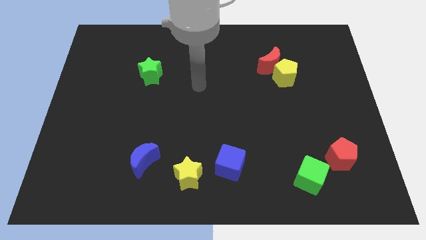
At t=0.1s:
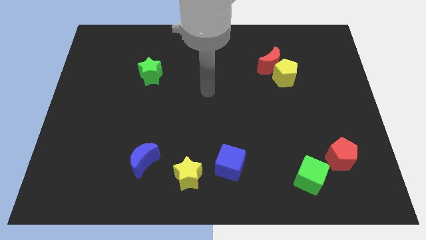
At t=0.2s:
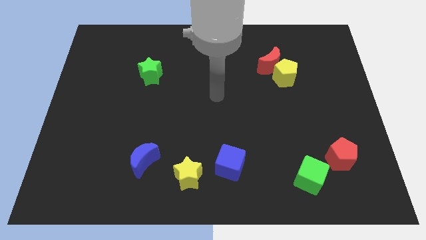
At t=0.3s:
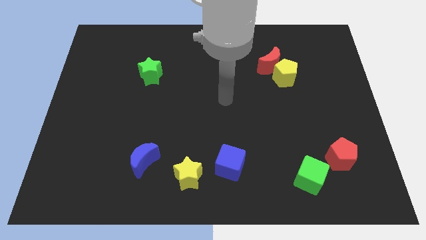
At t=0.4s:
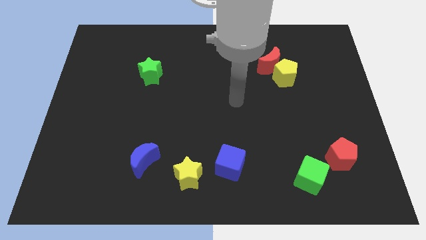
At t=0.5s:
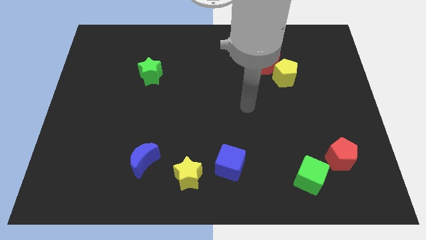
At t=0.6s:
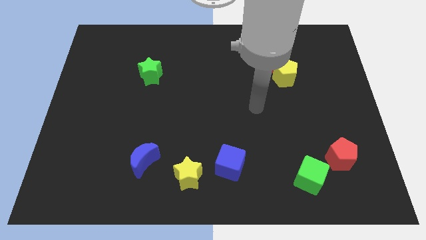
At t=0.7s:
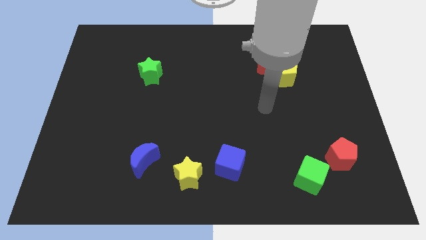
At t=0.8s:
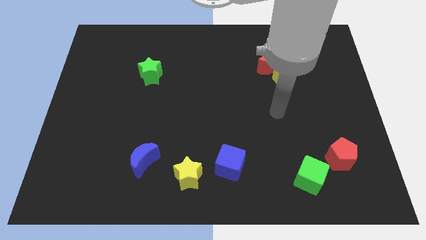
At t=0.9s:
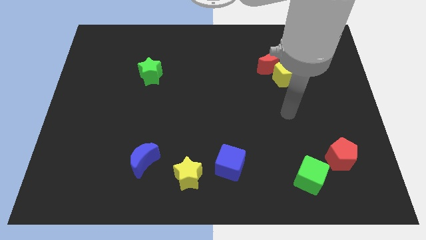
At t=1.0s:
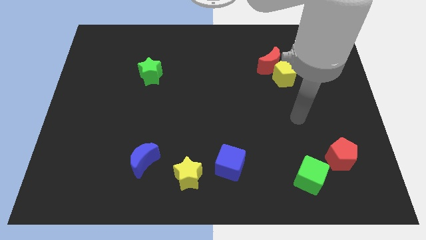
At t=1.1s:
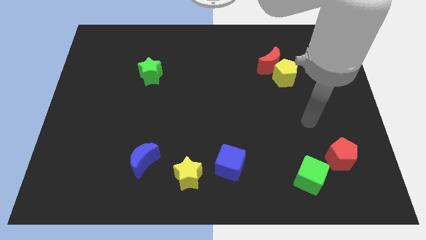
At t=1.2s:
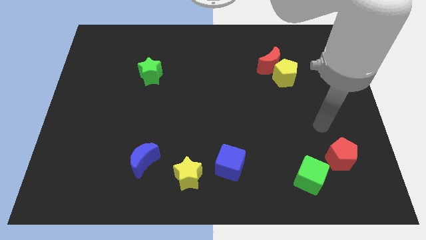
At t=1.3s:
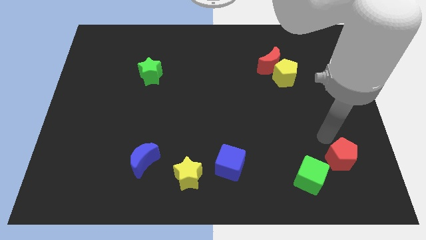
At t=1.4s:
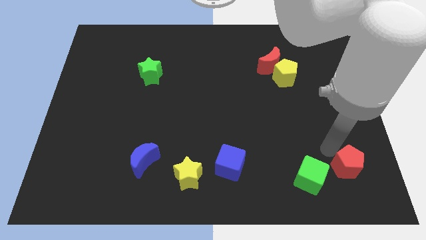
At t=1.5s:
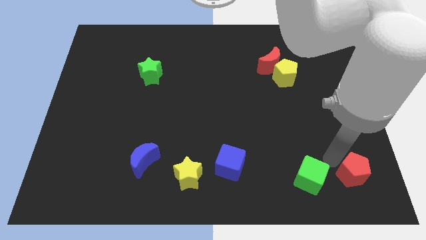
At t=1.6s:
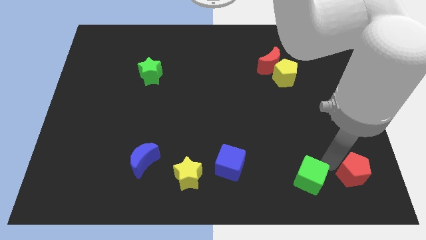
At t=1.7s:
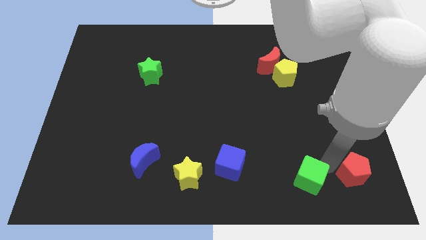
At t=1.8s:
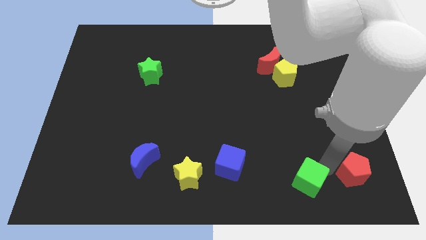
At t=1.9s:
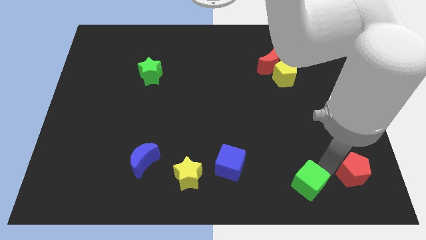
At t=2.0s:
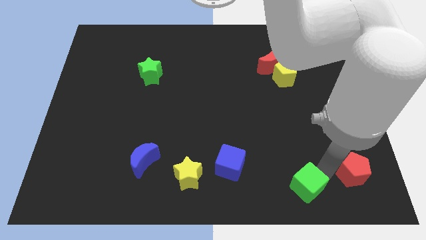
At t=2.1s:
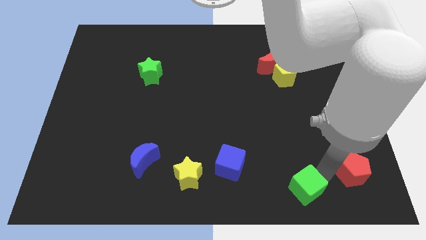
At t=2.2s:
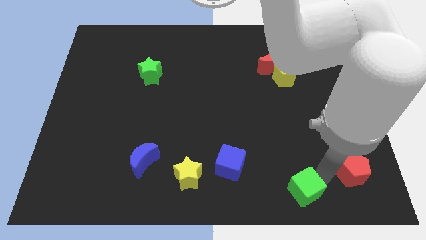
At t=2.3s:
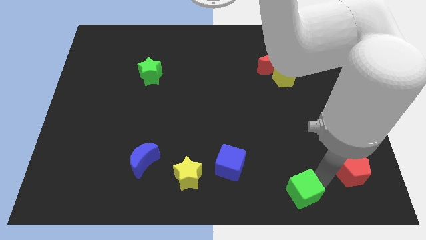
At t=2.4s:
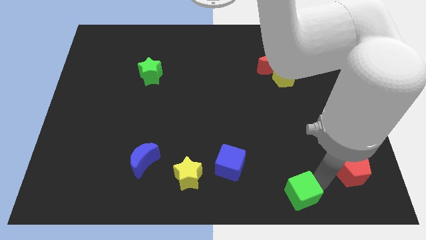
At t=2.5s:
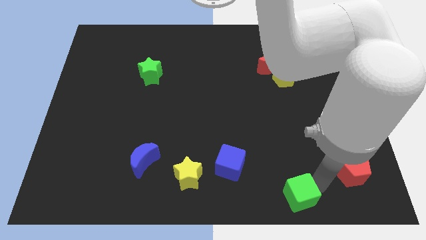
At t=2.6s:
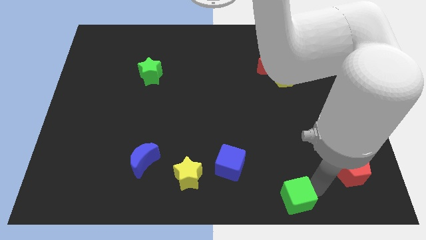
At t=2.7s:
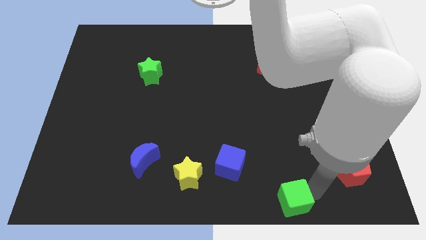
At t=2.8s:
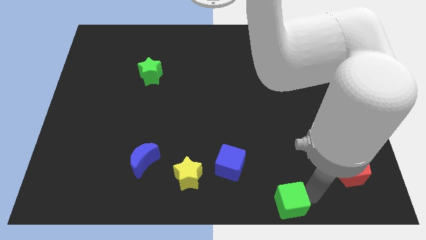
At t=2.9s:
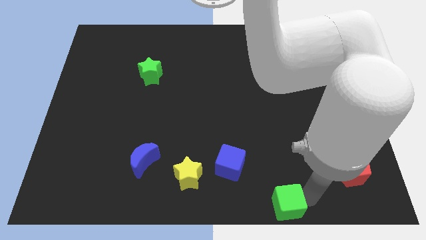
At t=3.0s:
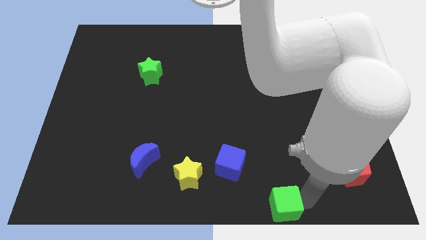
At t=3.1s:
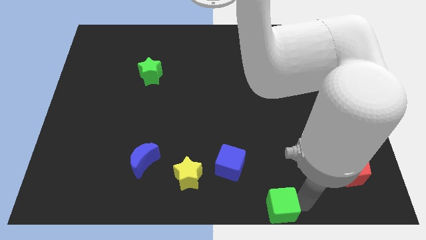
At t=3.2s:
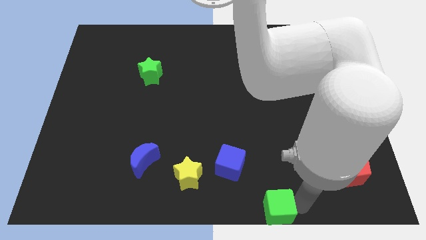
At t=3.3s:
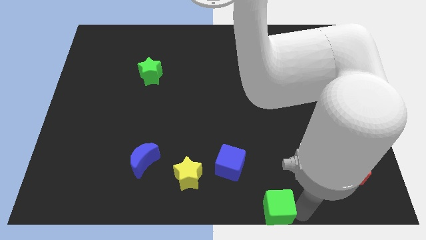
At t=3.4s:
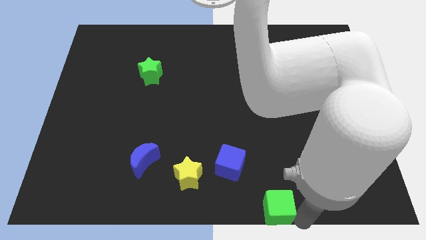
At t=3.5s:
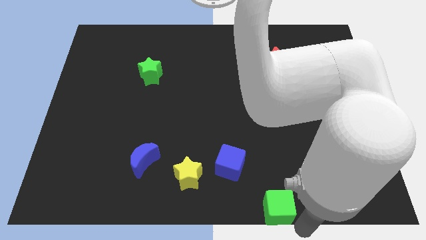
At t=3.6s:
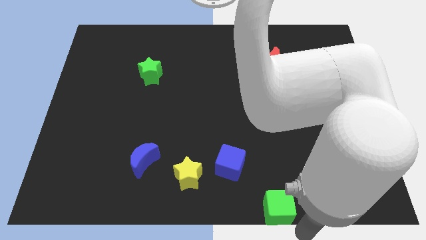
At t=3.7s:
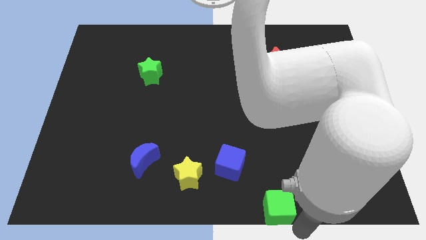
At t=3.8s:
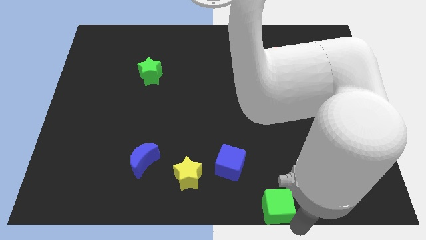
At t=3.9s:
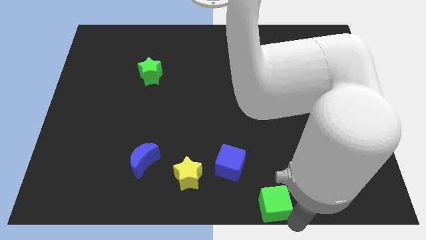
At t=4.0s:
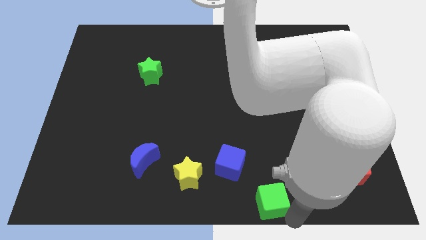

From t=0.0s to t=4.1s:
move the green cube a little to the left

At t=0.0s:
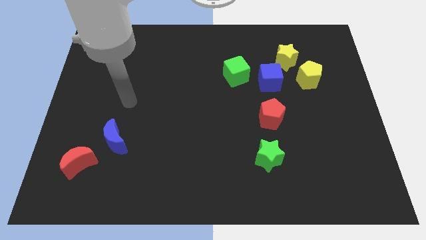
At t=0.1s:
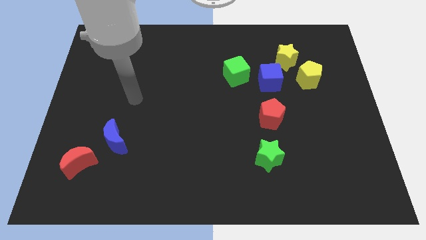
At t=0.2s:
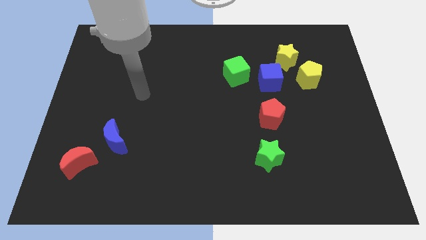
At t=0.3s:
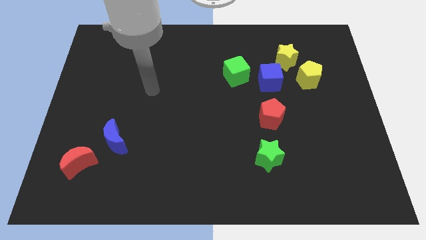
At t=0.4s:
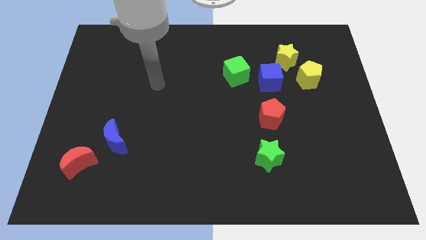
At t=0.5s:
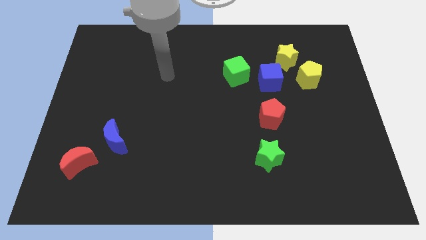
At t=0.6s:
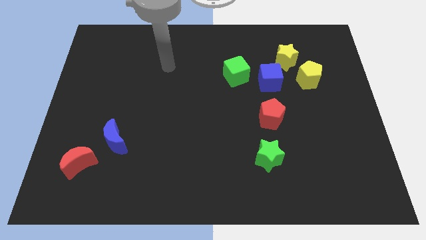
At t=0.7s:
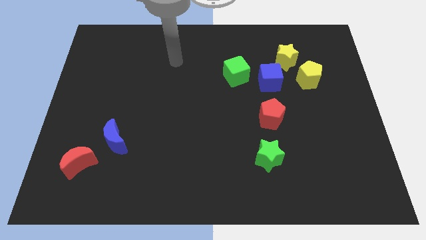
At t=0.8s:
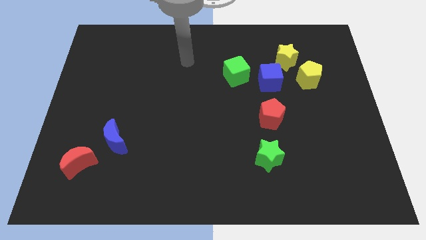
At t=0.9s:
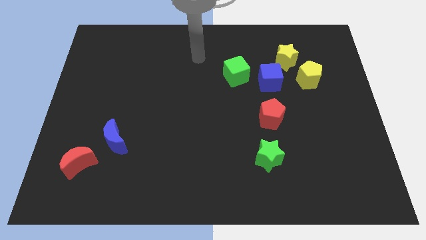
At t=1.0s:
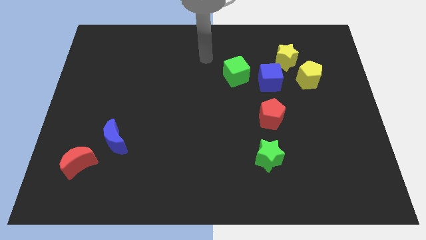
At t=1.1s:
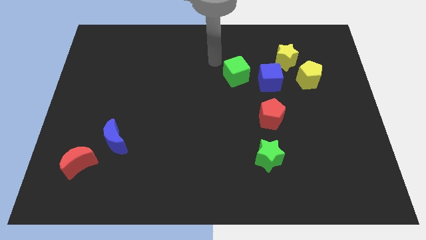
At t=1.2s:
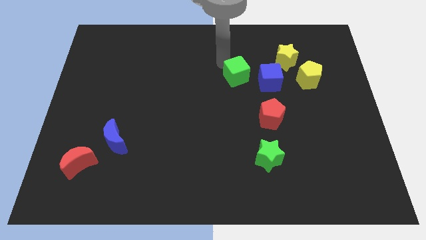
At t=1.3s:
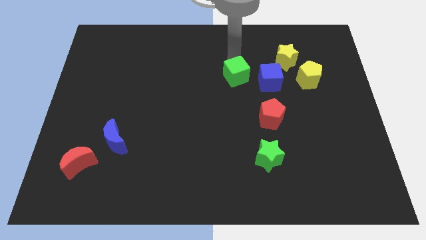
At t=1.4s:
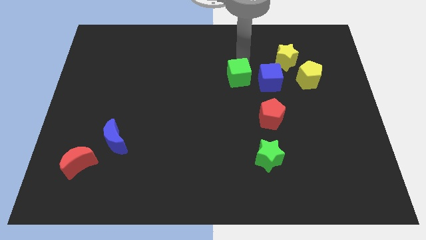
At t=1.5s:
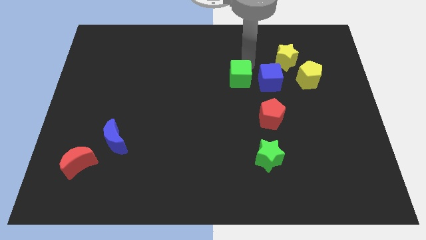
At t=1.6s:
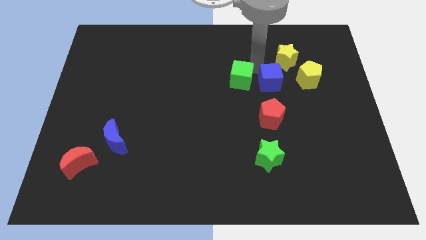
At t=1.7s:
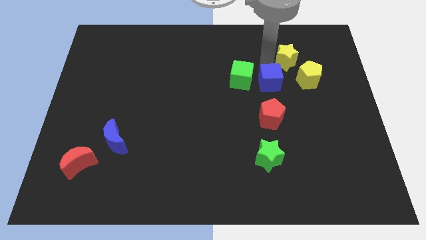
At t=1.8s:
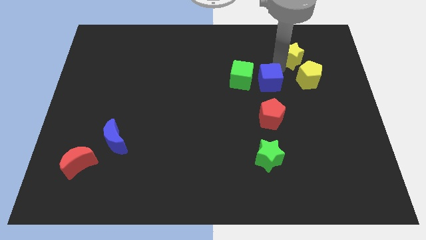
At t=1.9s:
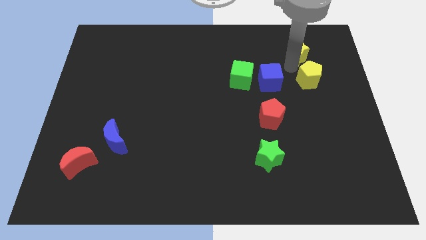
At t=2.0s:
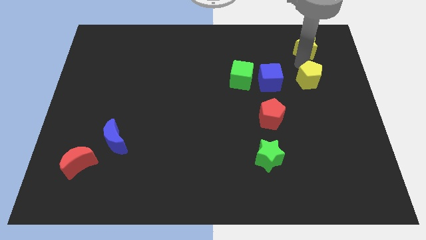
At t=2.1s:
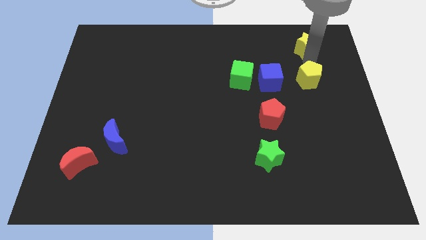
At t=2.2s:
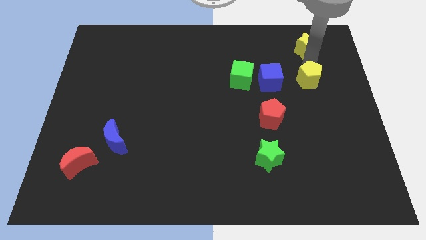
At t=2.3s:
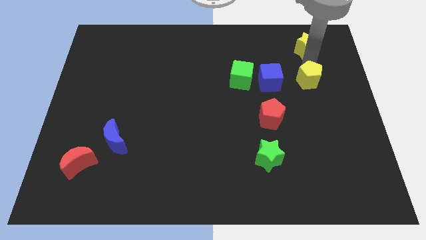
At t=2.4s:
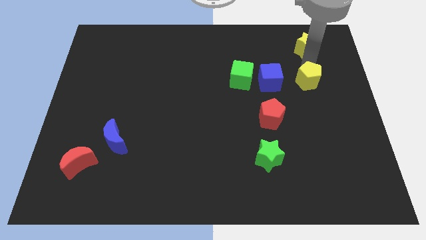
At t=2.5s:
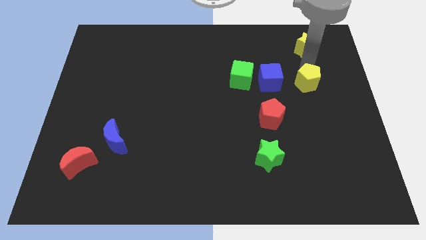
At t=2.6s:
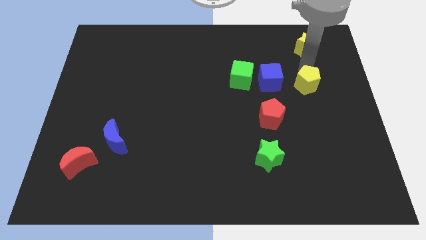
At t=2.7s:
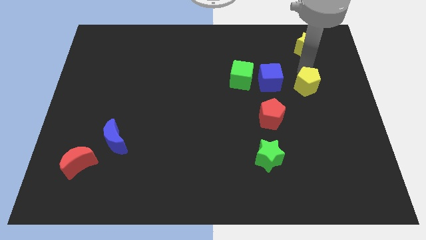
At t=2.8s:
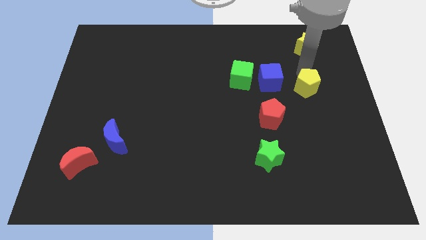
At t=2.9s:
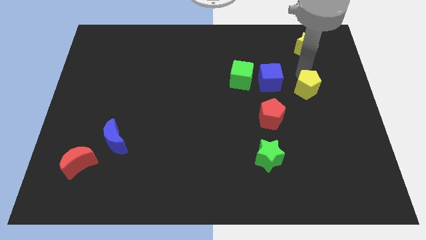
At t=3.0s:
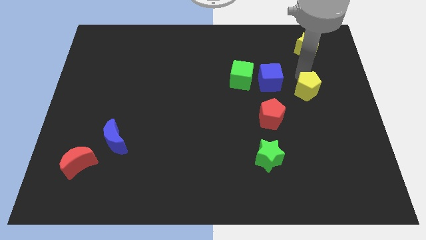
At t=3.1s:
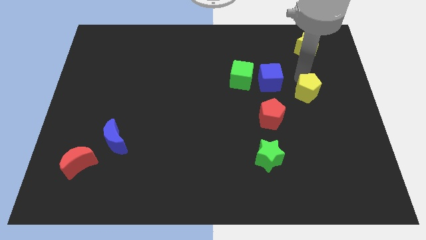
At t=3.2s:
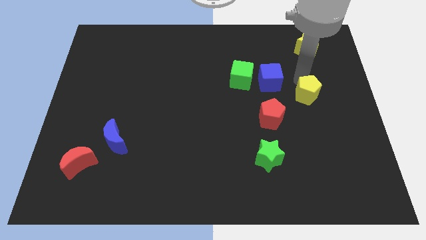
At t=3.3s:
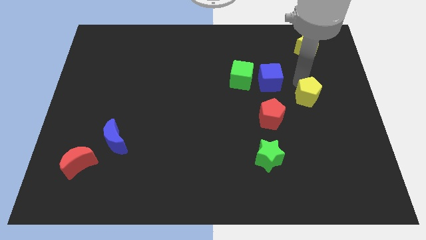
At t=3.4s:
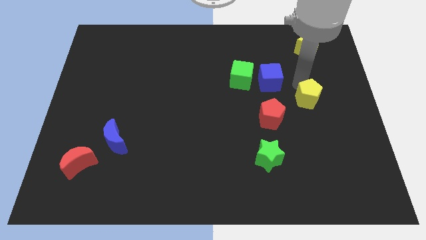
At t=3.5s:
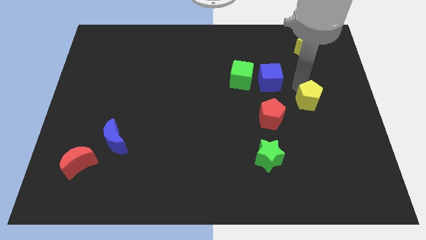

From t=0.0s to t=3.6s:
move the yellow pentagon a bit downwards

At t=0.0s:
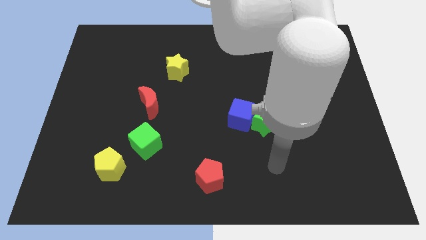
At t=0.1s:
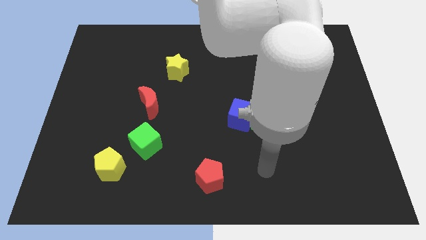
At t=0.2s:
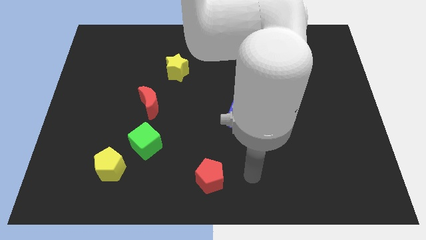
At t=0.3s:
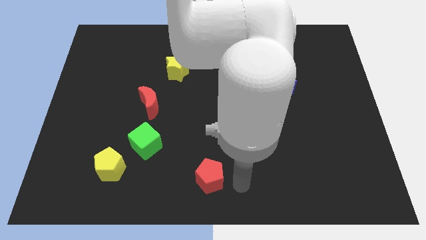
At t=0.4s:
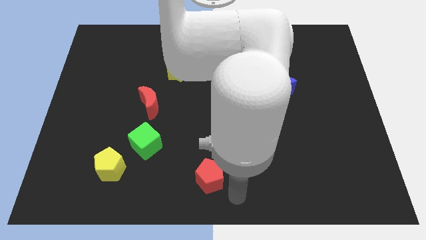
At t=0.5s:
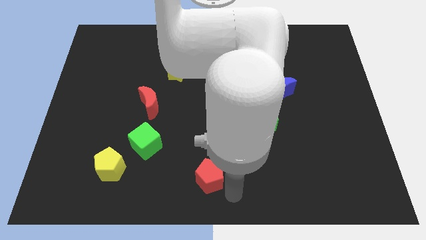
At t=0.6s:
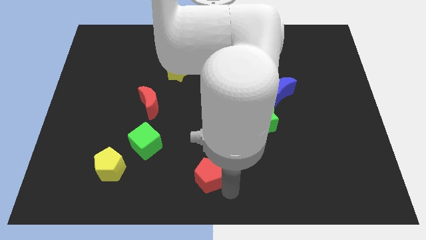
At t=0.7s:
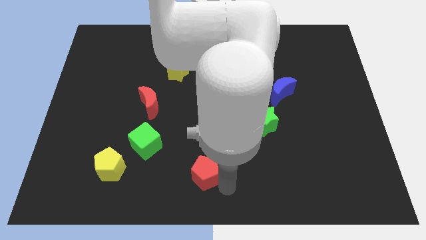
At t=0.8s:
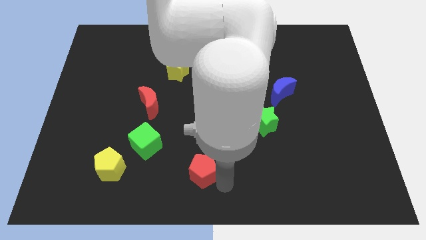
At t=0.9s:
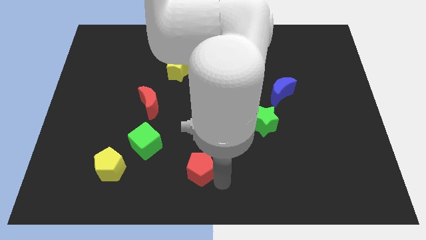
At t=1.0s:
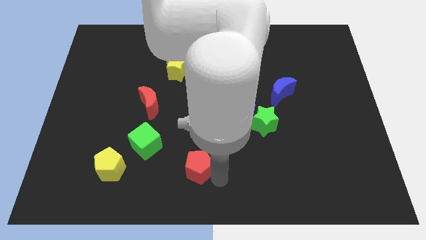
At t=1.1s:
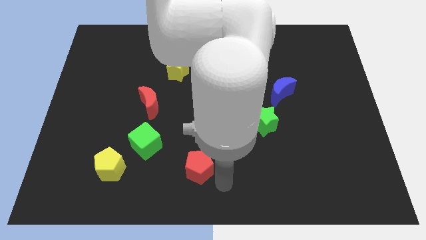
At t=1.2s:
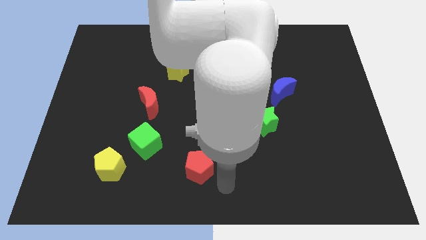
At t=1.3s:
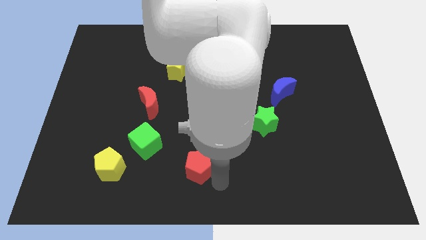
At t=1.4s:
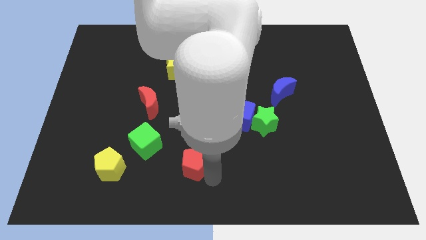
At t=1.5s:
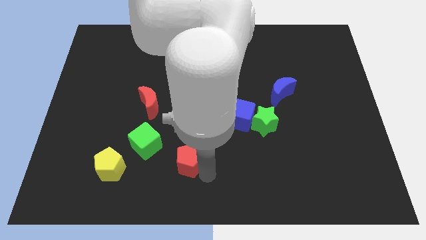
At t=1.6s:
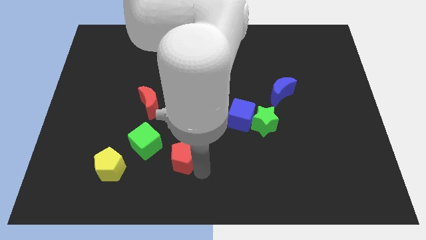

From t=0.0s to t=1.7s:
slightly push the red pentagon upwards and left
